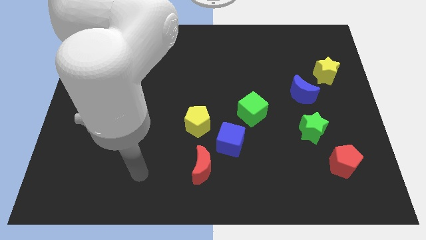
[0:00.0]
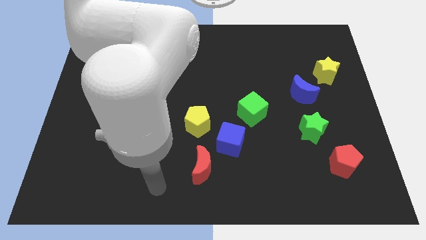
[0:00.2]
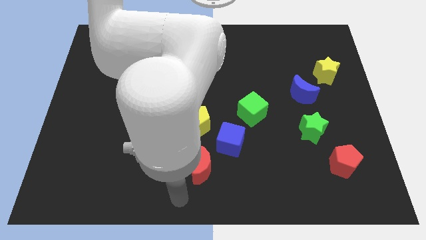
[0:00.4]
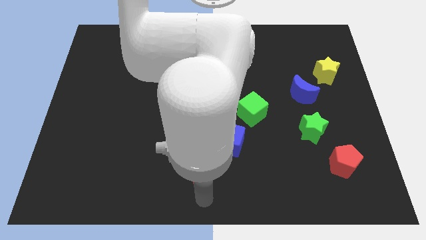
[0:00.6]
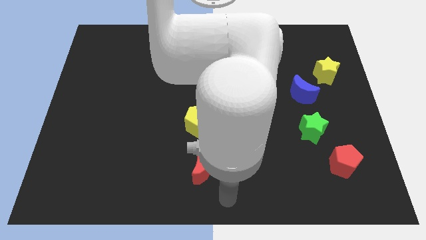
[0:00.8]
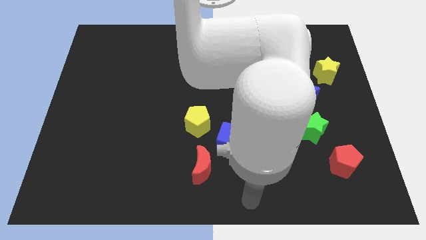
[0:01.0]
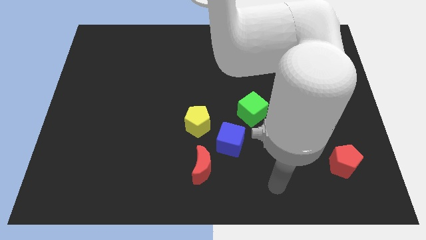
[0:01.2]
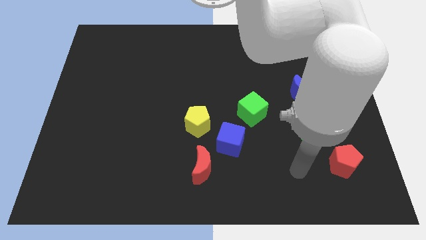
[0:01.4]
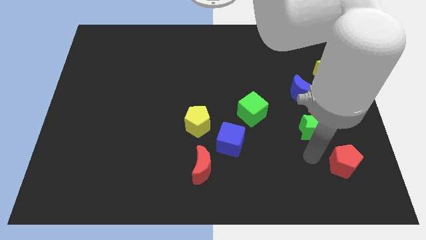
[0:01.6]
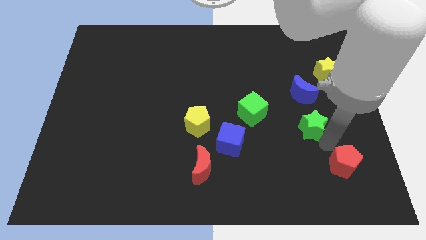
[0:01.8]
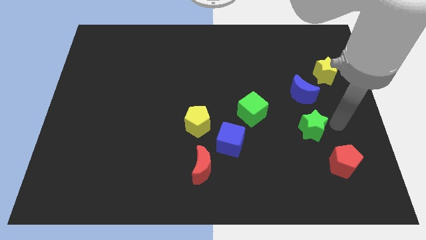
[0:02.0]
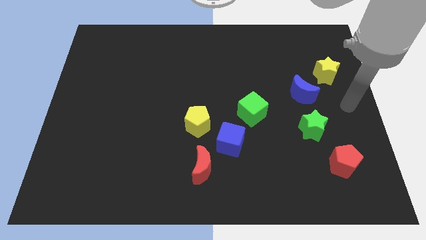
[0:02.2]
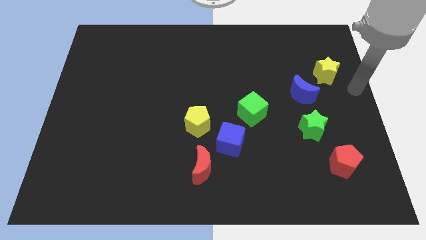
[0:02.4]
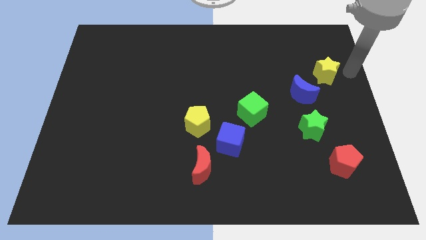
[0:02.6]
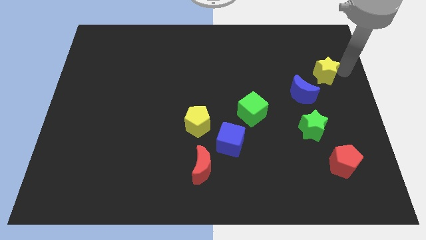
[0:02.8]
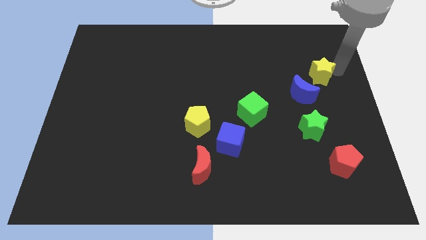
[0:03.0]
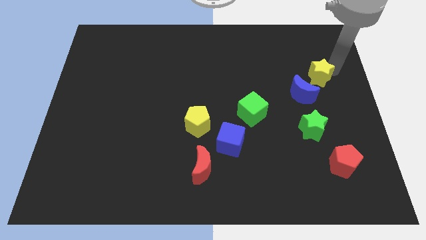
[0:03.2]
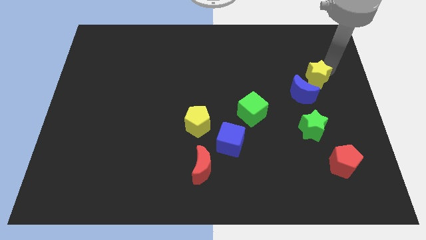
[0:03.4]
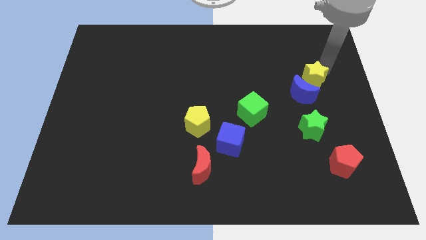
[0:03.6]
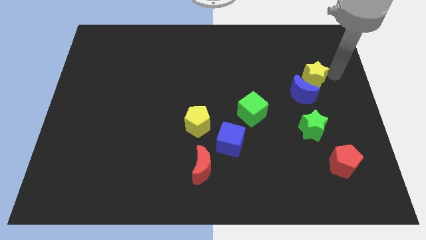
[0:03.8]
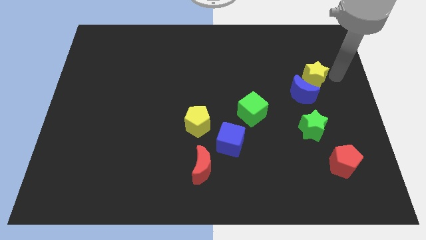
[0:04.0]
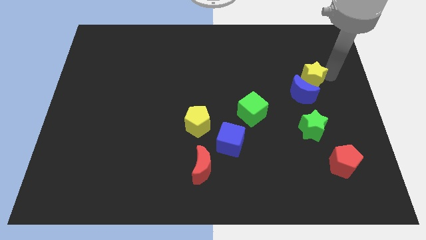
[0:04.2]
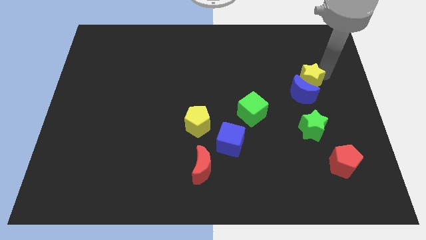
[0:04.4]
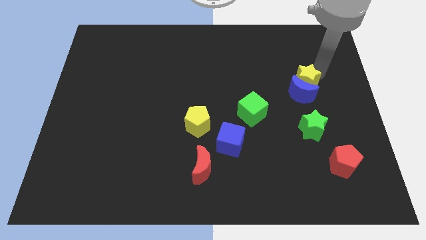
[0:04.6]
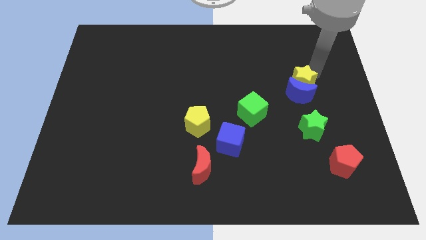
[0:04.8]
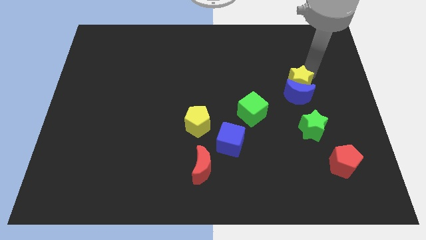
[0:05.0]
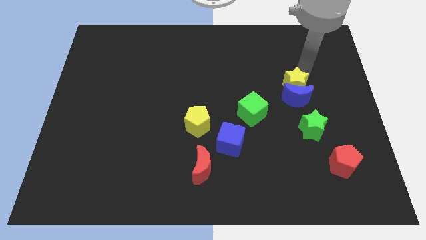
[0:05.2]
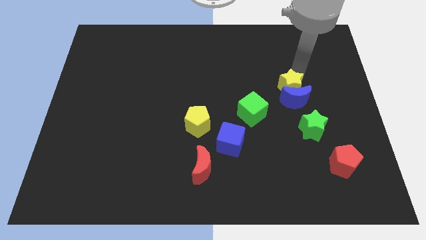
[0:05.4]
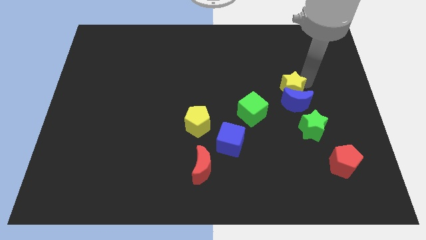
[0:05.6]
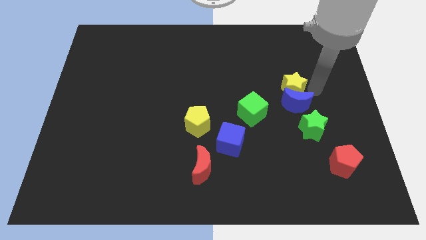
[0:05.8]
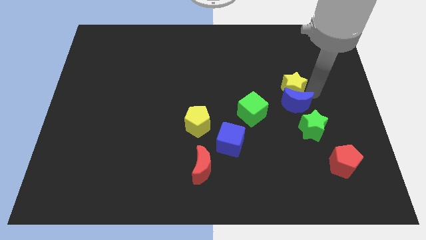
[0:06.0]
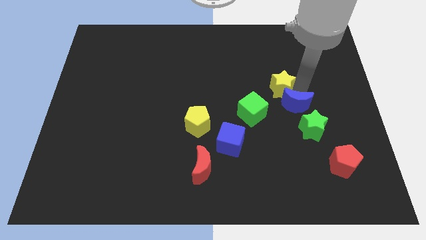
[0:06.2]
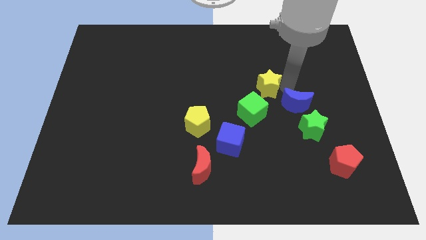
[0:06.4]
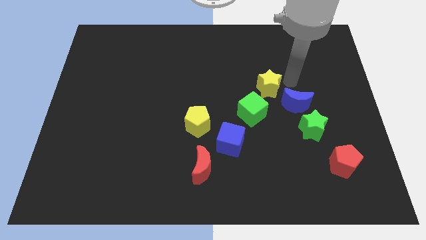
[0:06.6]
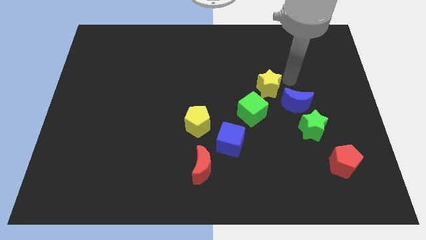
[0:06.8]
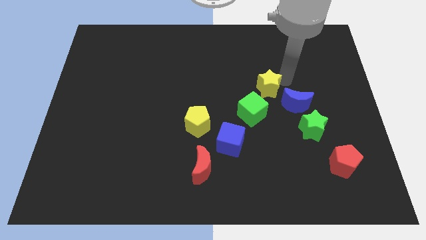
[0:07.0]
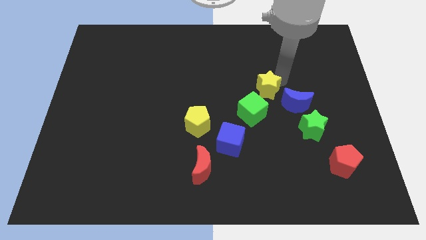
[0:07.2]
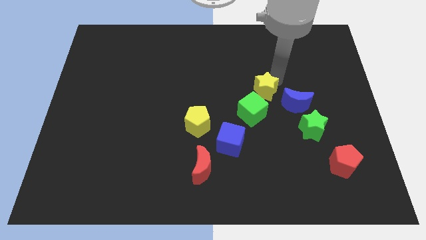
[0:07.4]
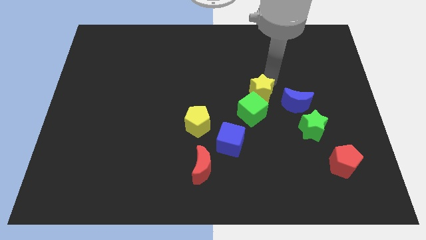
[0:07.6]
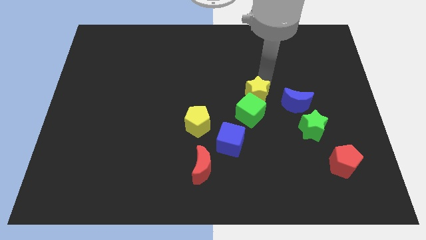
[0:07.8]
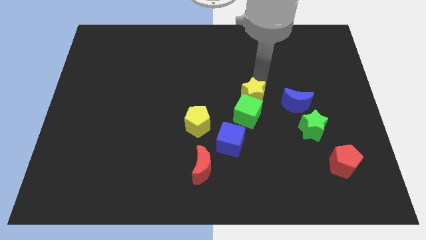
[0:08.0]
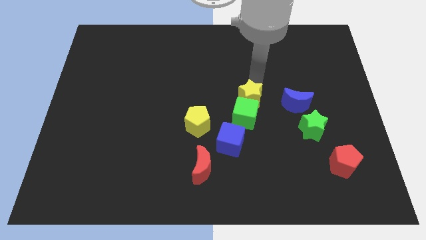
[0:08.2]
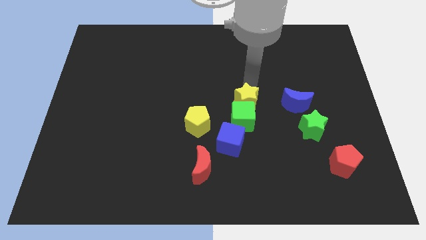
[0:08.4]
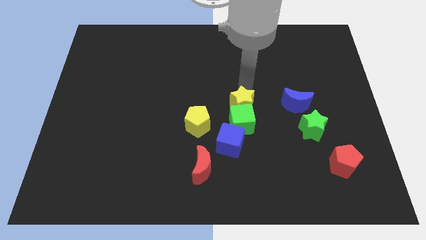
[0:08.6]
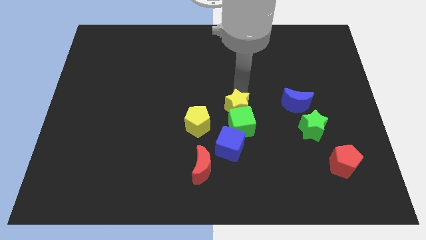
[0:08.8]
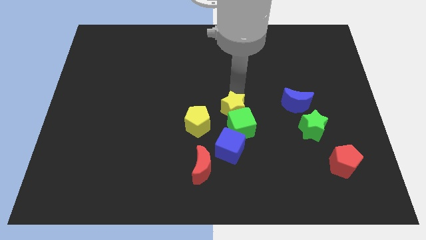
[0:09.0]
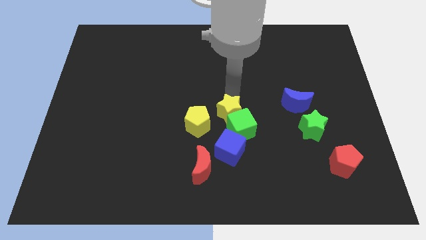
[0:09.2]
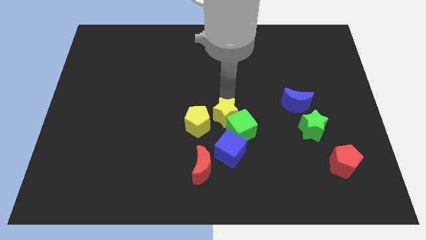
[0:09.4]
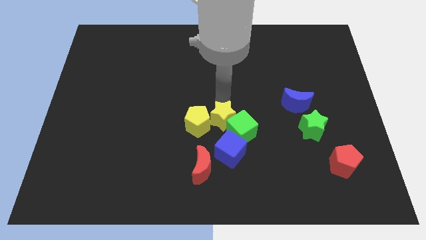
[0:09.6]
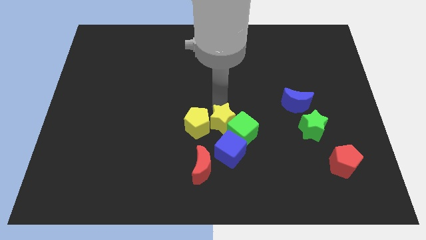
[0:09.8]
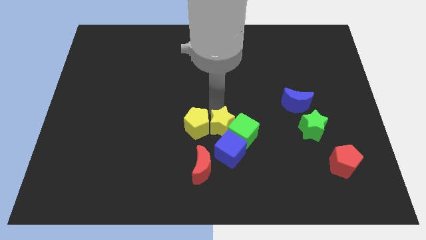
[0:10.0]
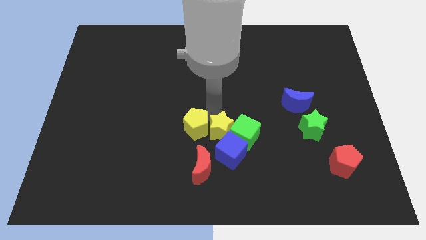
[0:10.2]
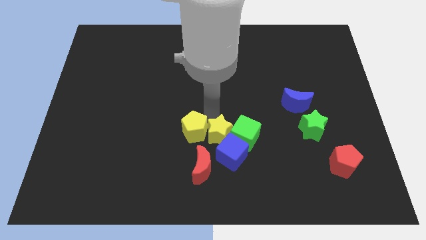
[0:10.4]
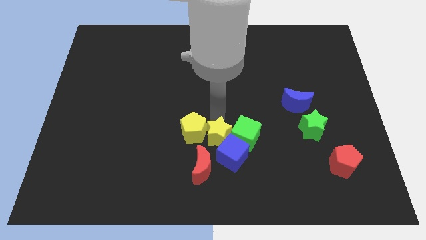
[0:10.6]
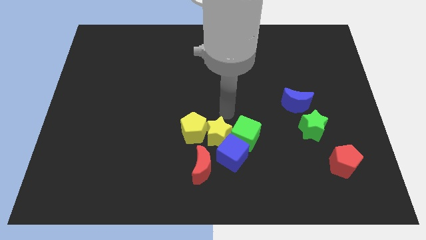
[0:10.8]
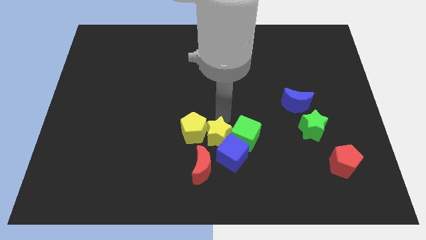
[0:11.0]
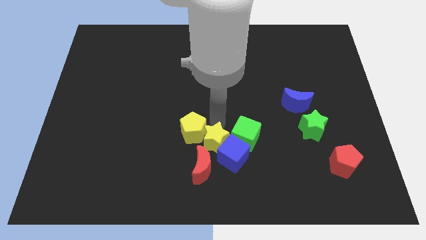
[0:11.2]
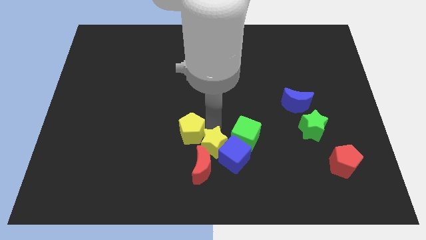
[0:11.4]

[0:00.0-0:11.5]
push the yellow star to the red moon

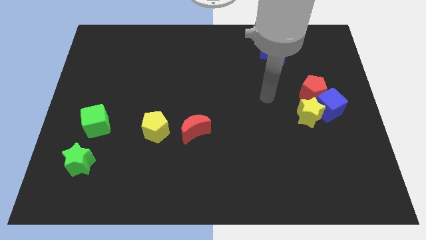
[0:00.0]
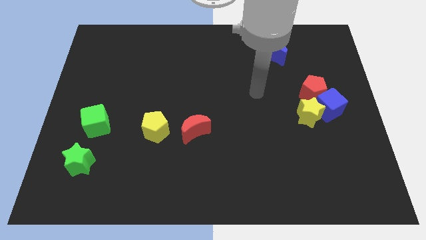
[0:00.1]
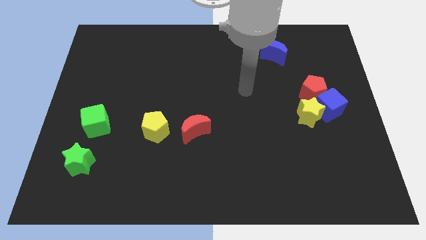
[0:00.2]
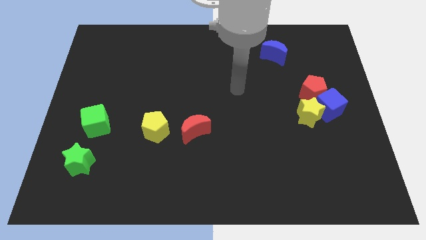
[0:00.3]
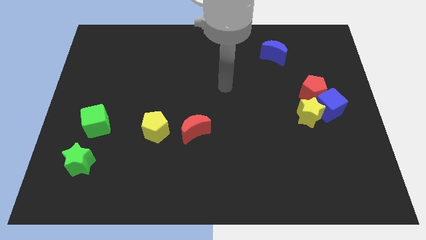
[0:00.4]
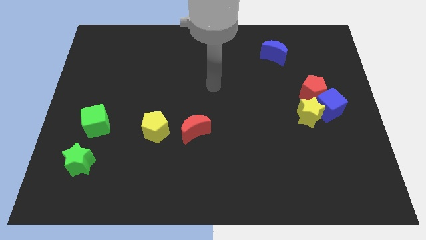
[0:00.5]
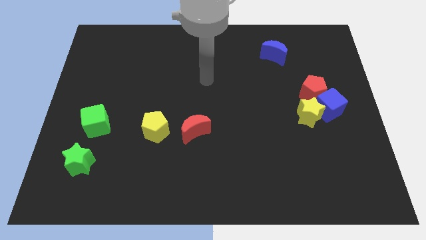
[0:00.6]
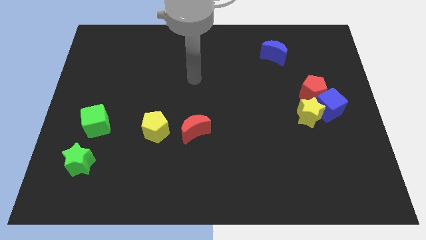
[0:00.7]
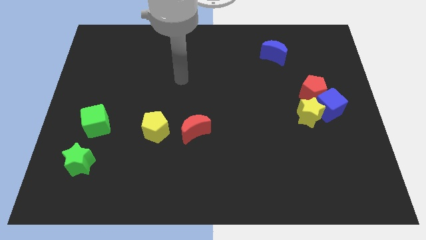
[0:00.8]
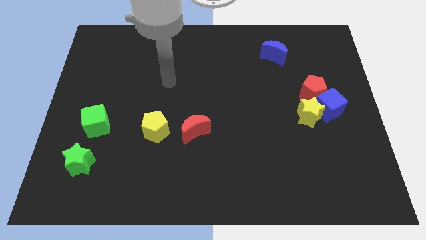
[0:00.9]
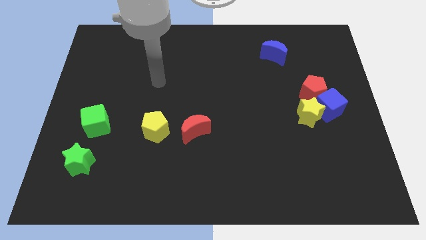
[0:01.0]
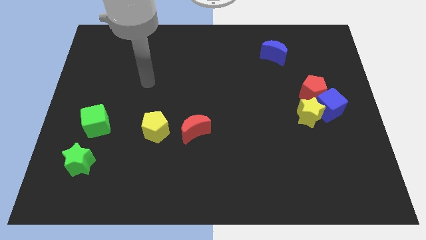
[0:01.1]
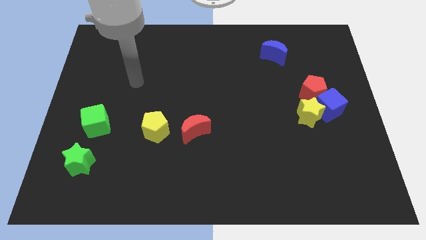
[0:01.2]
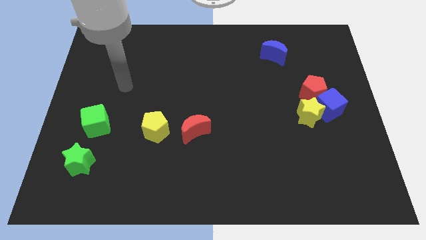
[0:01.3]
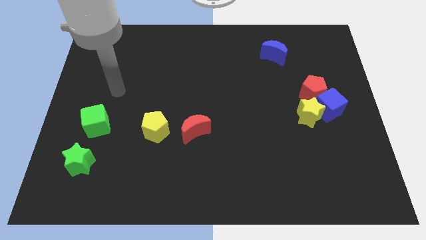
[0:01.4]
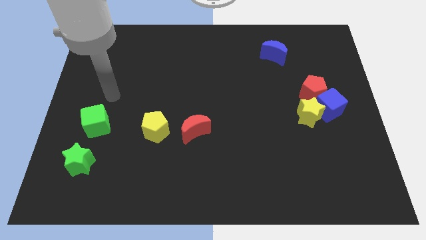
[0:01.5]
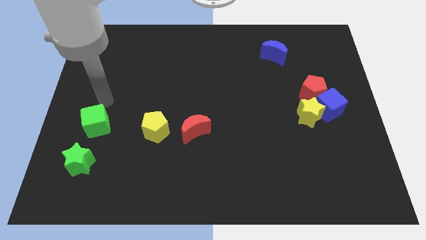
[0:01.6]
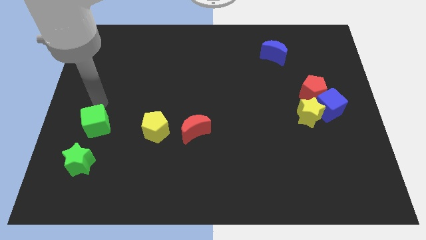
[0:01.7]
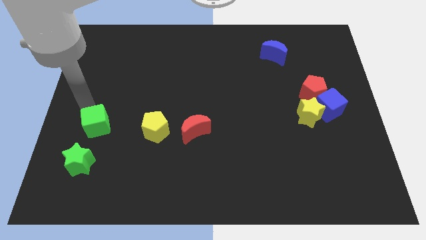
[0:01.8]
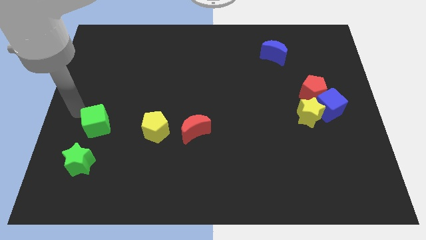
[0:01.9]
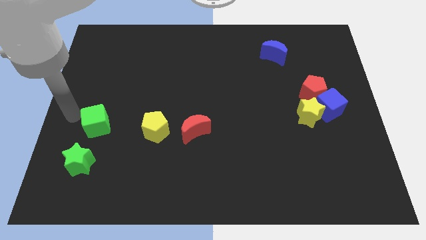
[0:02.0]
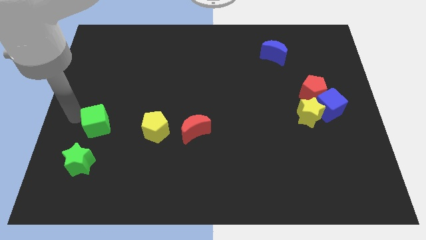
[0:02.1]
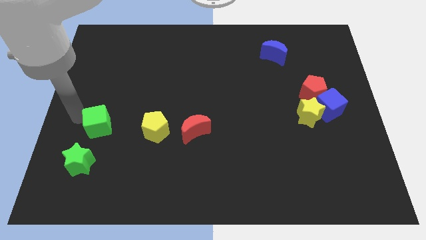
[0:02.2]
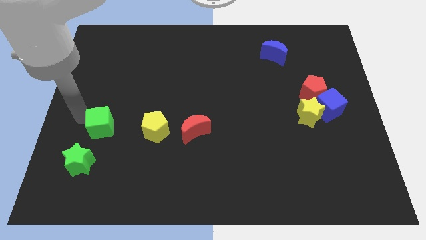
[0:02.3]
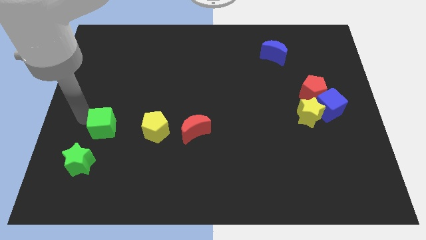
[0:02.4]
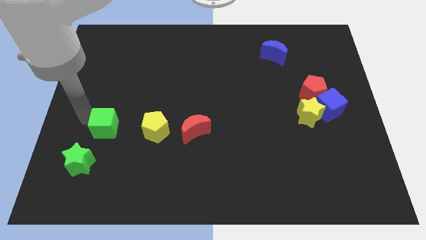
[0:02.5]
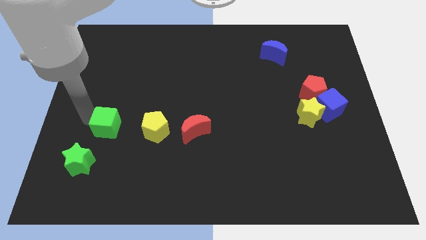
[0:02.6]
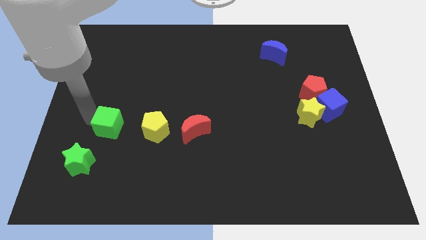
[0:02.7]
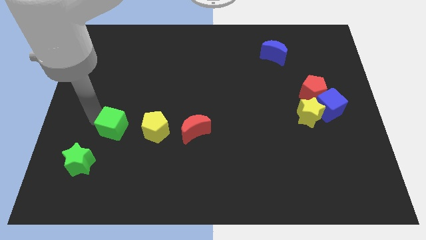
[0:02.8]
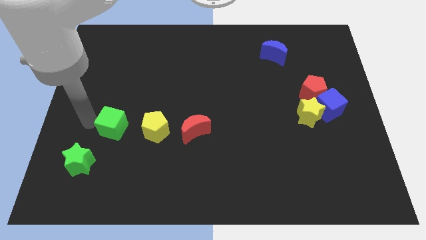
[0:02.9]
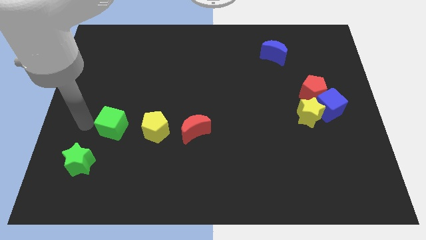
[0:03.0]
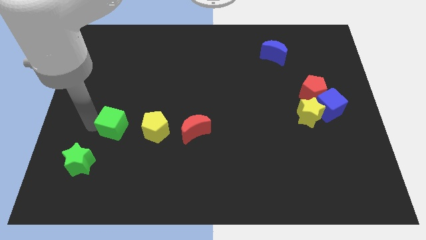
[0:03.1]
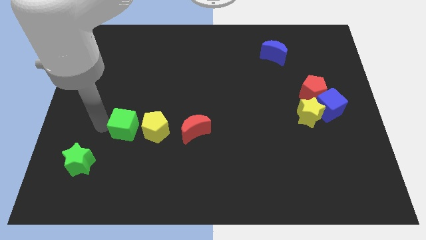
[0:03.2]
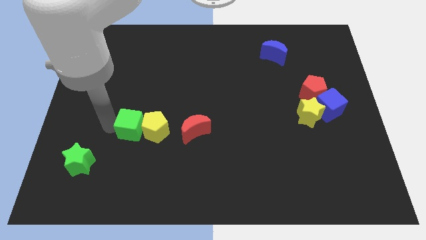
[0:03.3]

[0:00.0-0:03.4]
slide the green cube towards the yellow pentagon
